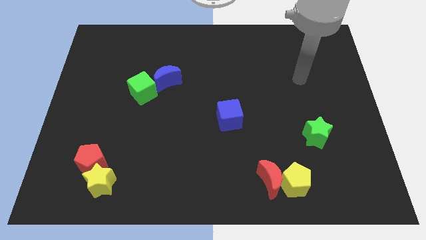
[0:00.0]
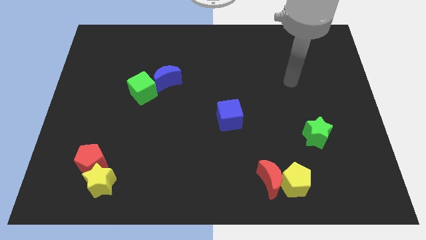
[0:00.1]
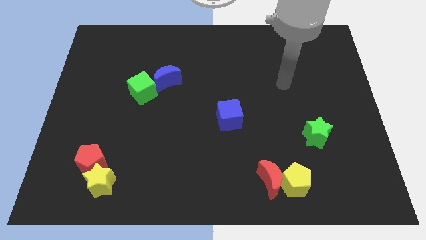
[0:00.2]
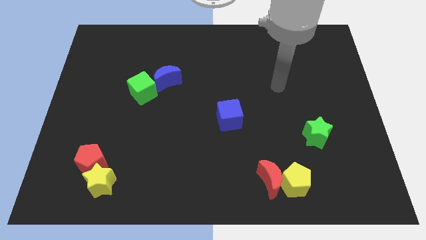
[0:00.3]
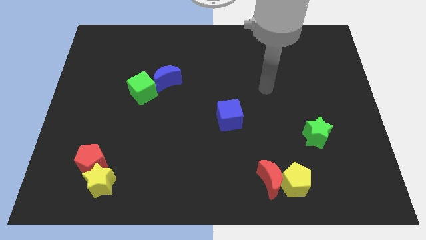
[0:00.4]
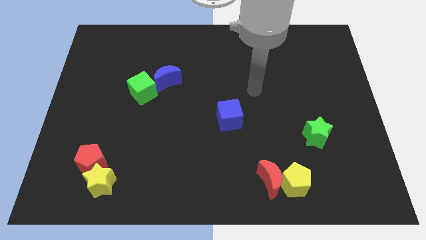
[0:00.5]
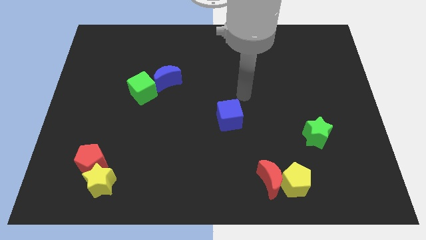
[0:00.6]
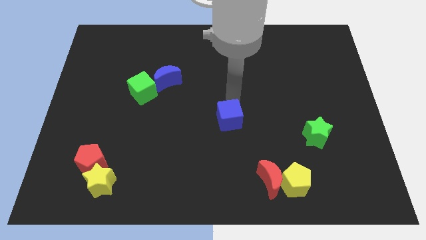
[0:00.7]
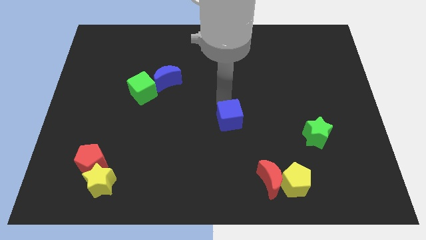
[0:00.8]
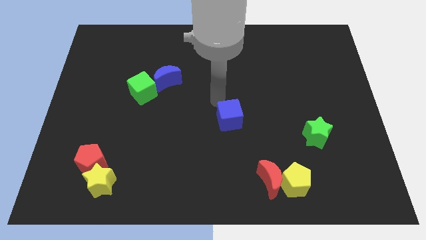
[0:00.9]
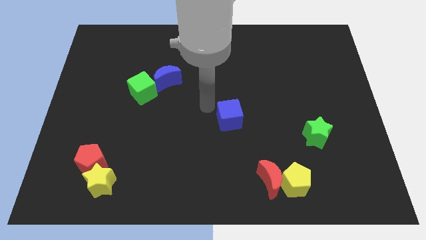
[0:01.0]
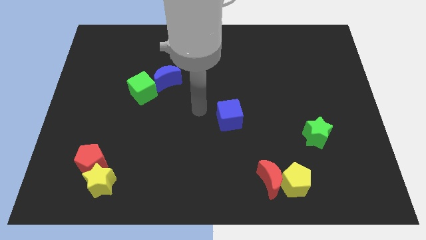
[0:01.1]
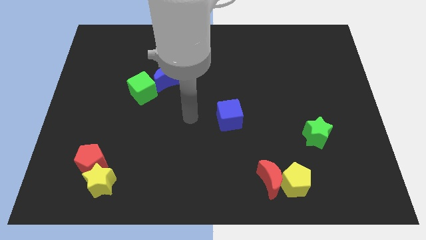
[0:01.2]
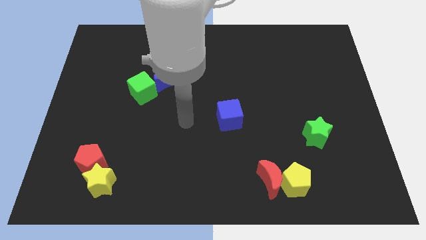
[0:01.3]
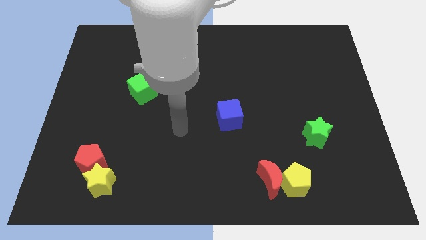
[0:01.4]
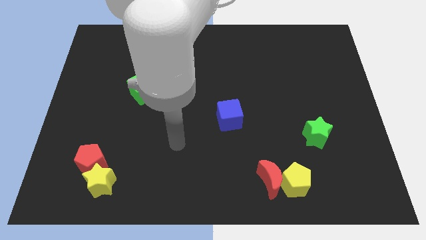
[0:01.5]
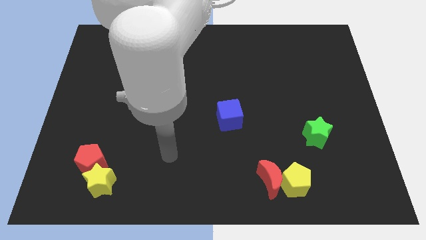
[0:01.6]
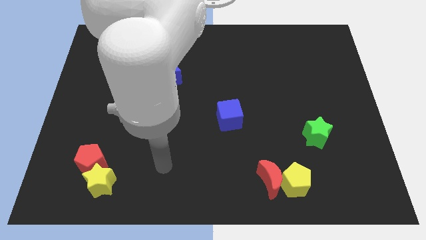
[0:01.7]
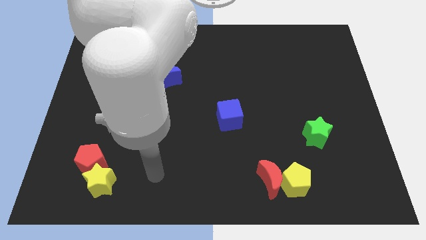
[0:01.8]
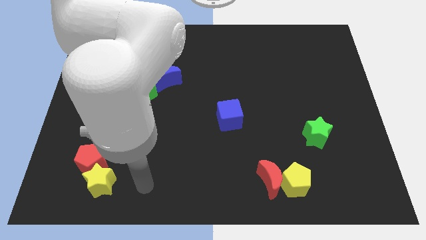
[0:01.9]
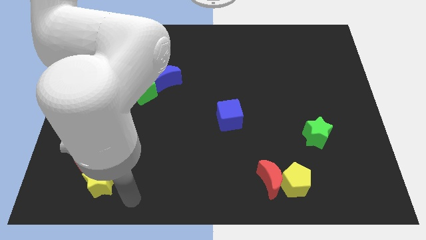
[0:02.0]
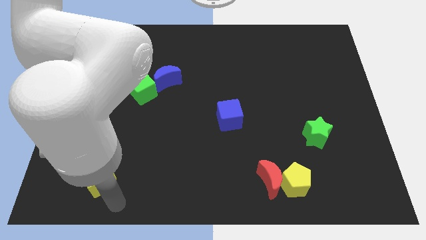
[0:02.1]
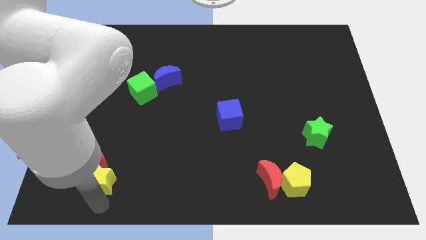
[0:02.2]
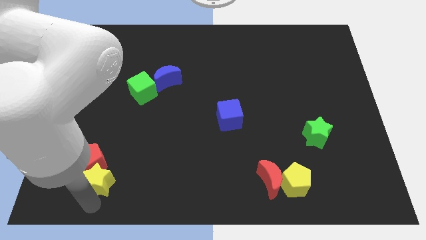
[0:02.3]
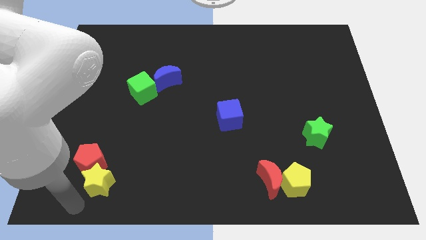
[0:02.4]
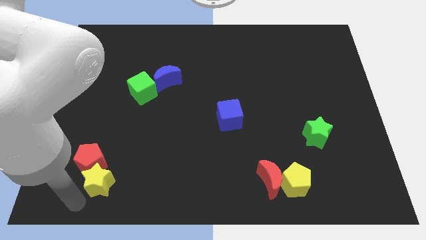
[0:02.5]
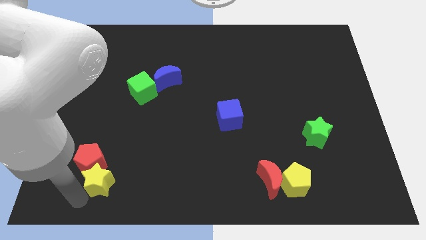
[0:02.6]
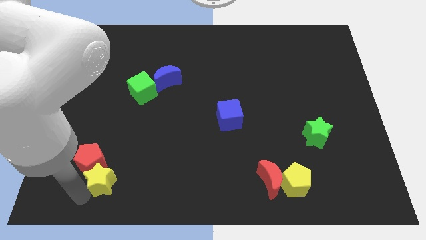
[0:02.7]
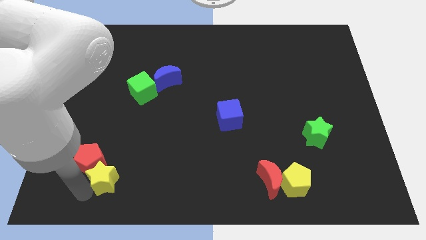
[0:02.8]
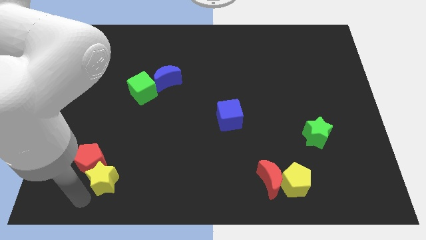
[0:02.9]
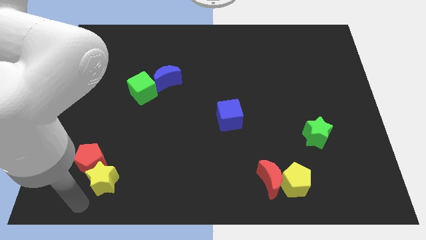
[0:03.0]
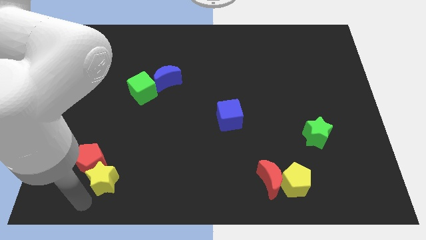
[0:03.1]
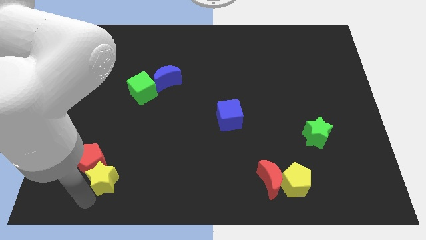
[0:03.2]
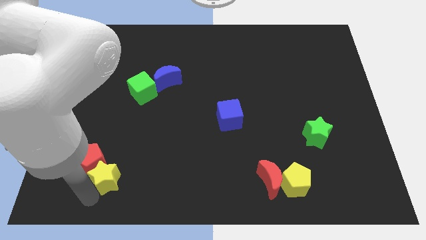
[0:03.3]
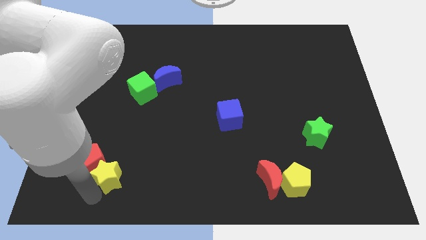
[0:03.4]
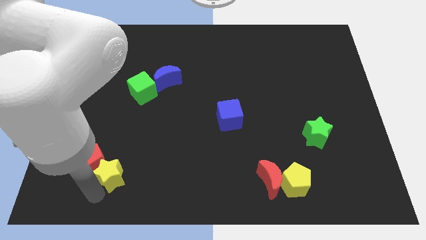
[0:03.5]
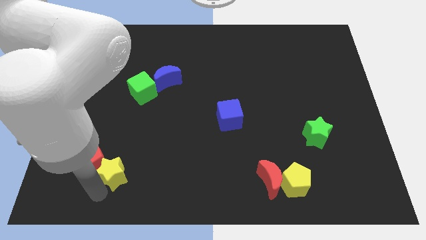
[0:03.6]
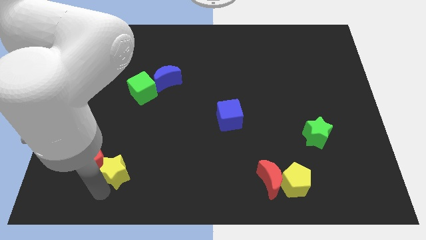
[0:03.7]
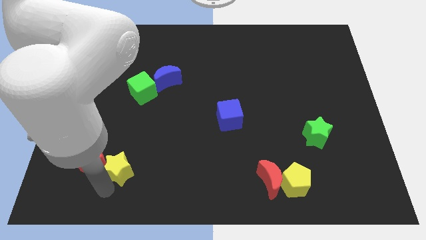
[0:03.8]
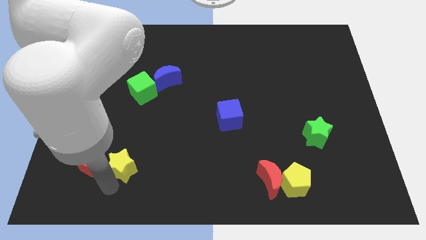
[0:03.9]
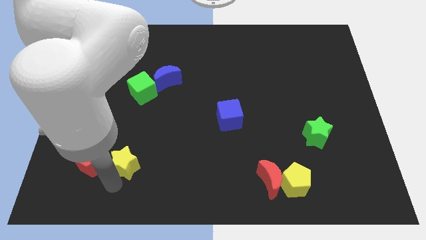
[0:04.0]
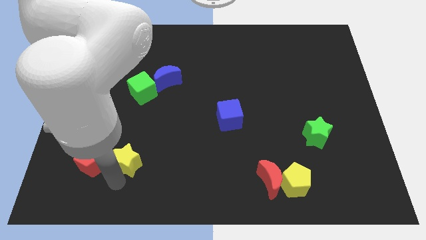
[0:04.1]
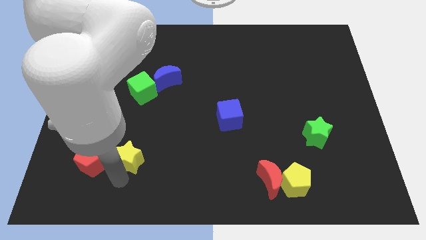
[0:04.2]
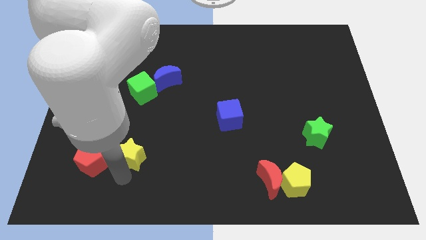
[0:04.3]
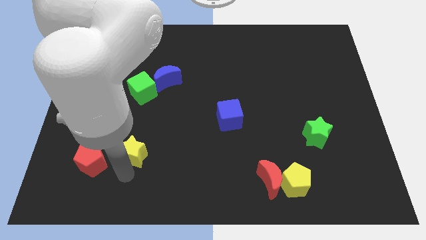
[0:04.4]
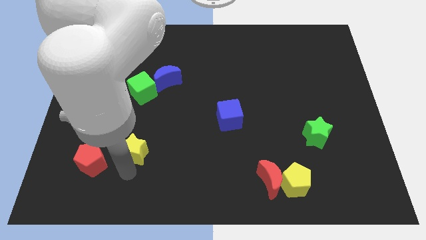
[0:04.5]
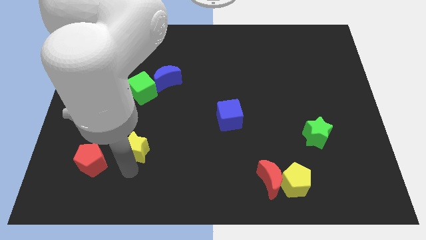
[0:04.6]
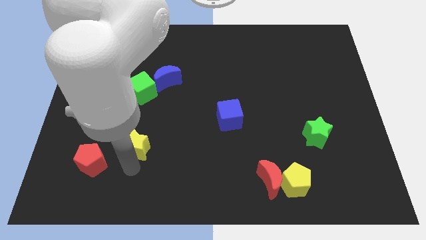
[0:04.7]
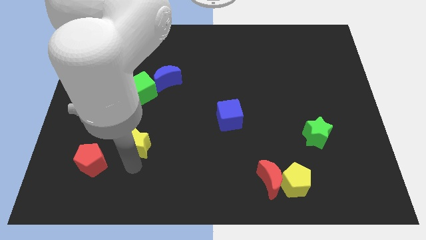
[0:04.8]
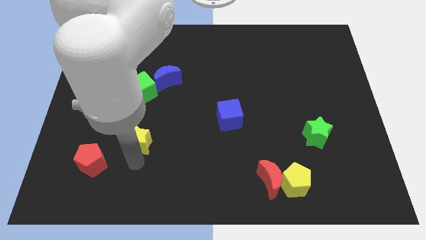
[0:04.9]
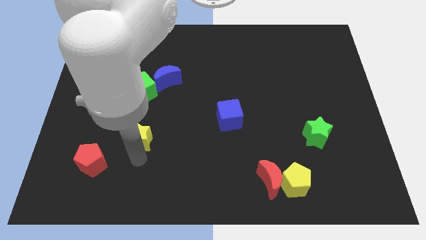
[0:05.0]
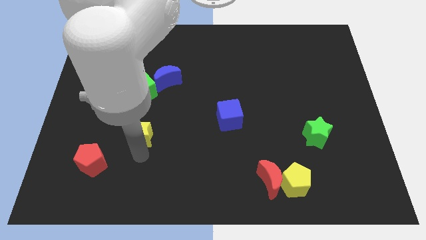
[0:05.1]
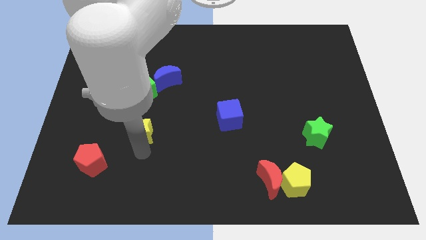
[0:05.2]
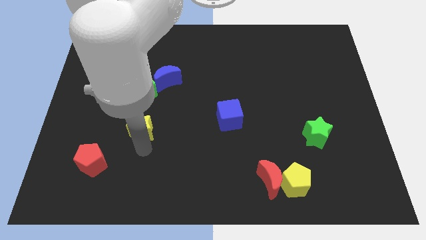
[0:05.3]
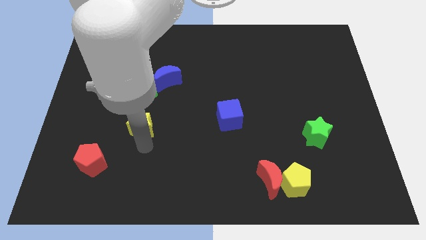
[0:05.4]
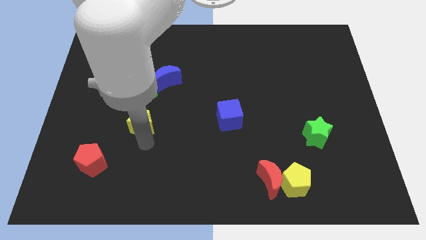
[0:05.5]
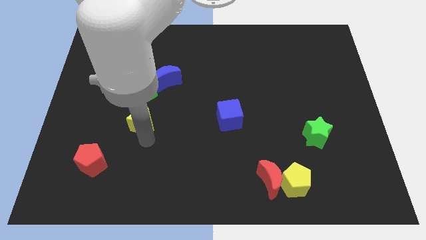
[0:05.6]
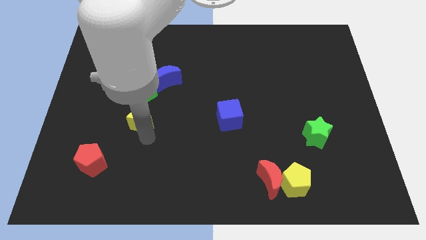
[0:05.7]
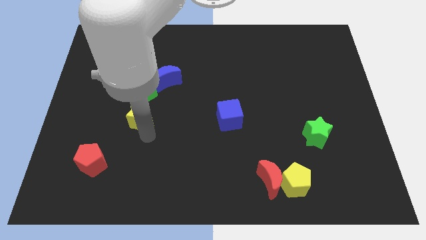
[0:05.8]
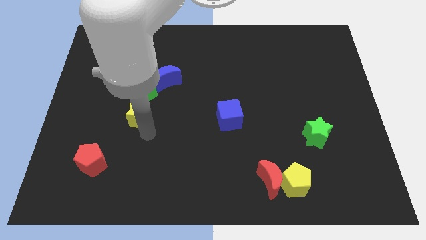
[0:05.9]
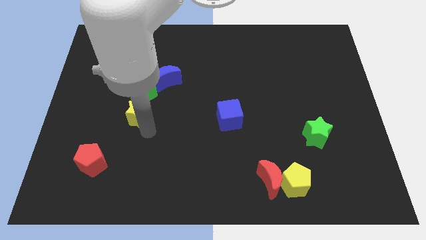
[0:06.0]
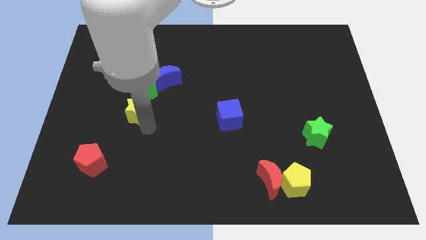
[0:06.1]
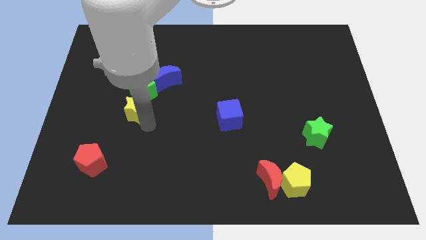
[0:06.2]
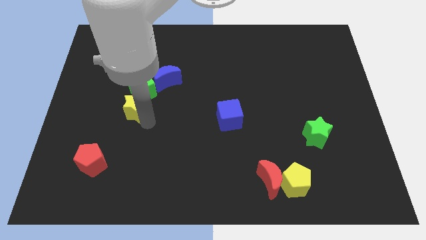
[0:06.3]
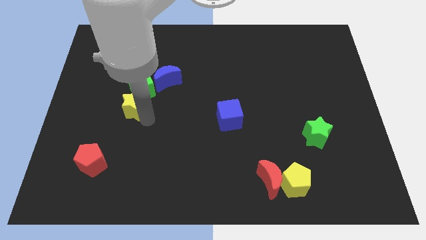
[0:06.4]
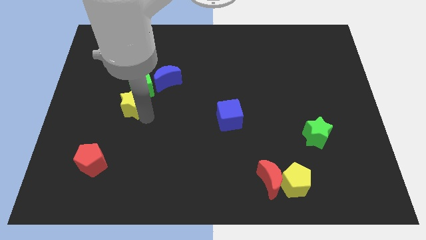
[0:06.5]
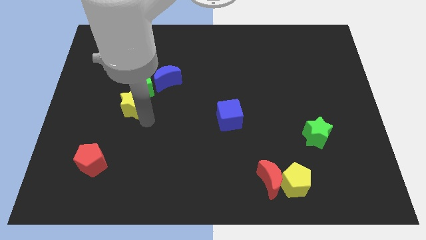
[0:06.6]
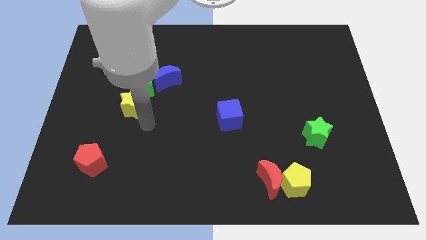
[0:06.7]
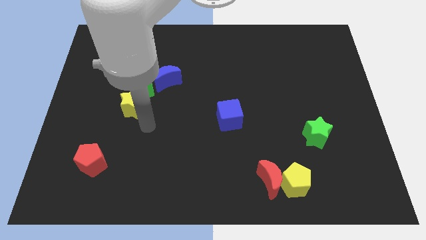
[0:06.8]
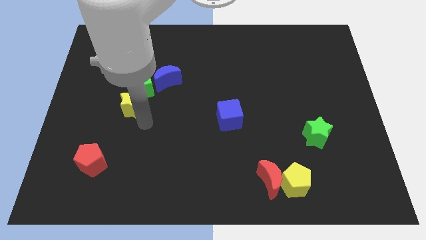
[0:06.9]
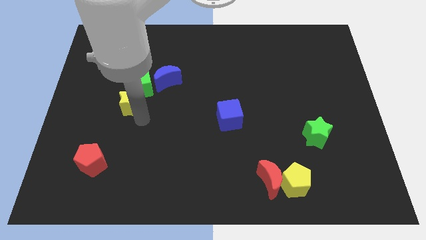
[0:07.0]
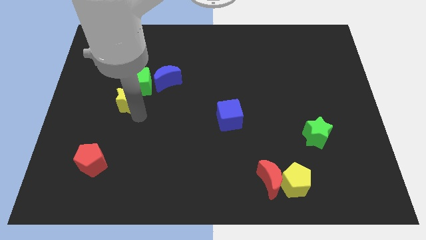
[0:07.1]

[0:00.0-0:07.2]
slide the yellow star upwards

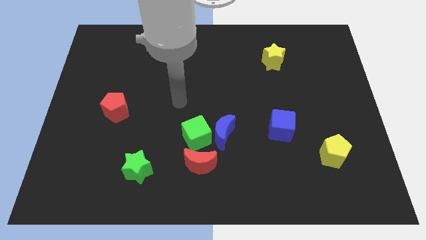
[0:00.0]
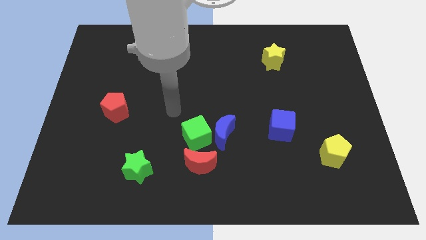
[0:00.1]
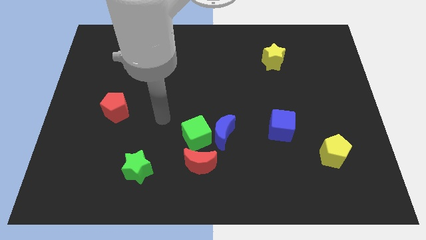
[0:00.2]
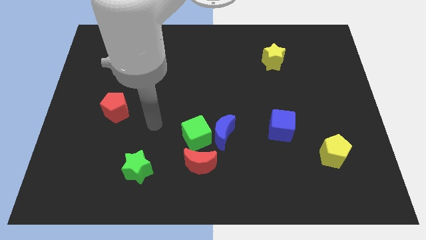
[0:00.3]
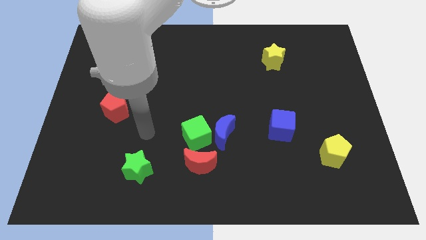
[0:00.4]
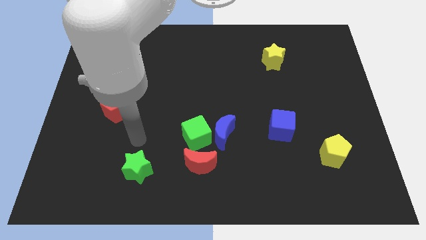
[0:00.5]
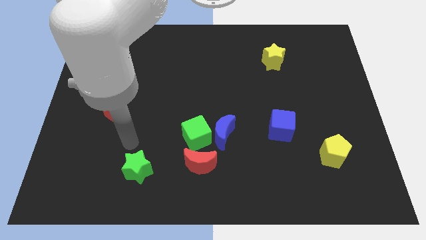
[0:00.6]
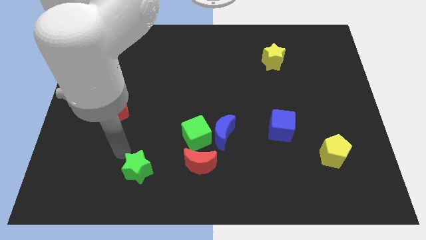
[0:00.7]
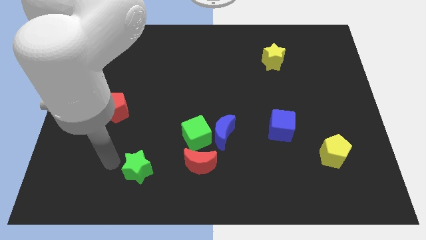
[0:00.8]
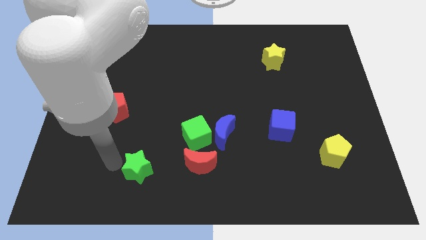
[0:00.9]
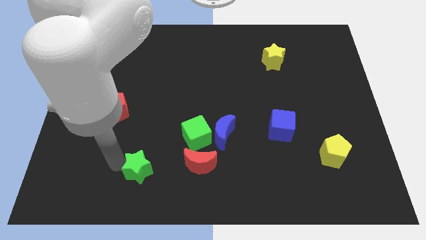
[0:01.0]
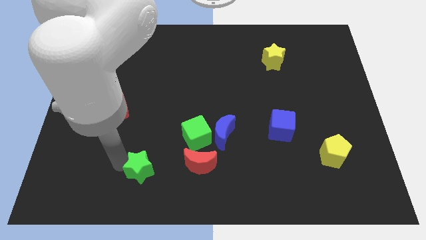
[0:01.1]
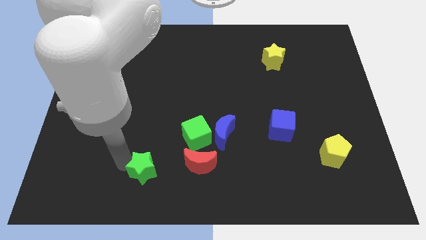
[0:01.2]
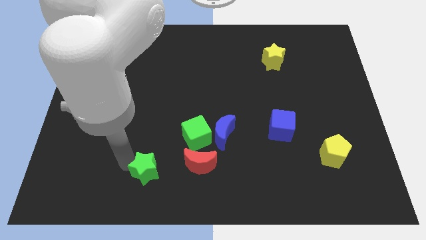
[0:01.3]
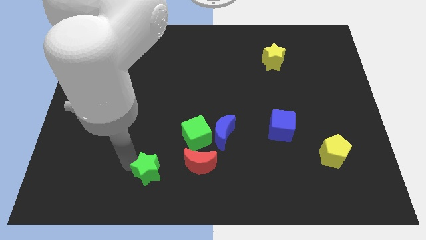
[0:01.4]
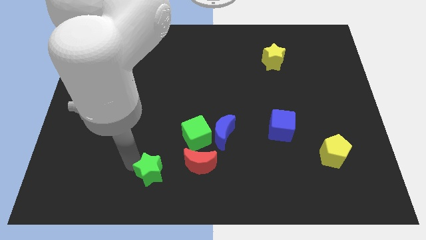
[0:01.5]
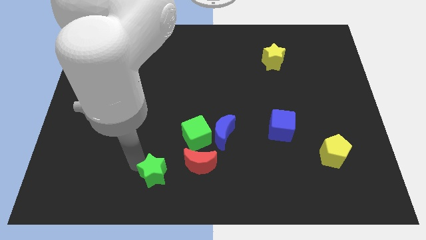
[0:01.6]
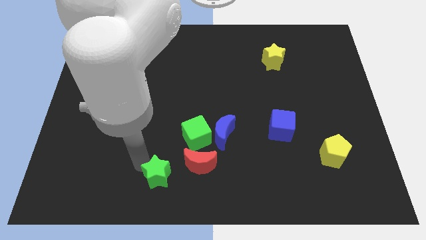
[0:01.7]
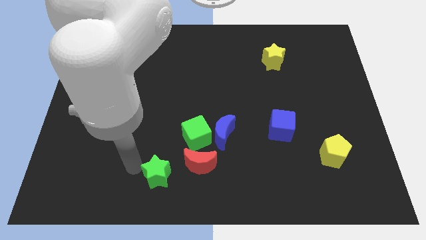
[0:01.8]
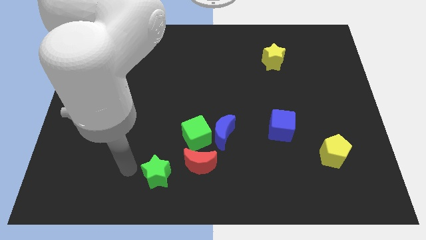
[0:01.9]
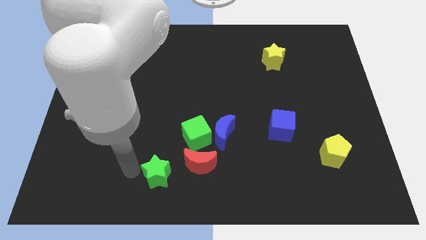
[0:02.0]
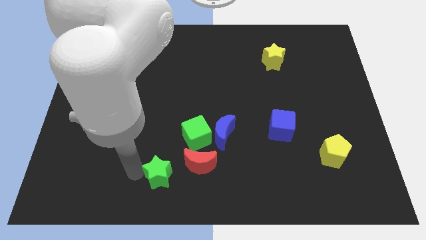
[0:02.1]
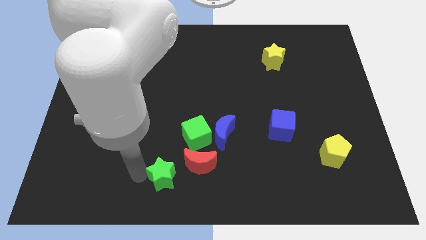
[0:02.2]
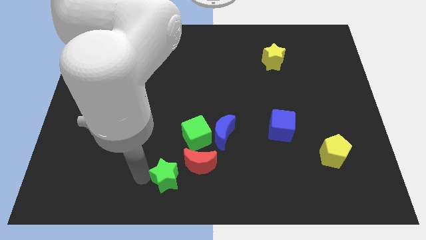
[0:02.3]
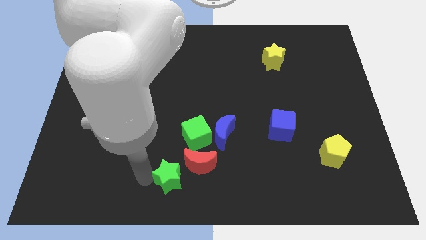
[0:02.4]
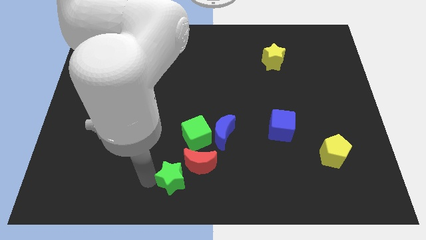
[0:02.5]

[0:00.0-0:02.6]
slightly move the green star right
